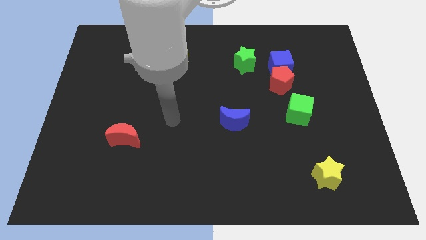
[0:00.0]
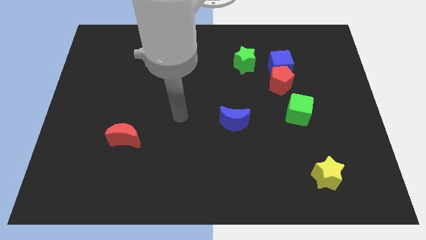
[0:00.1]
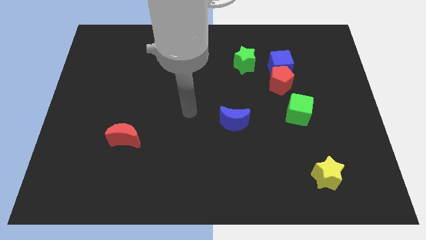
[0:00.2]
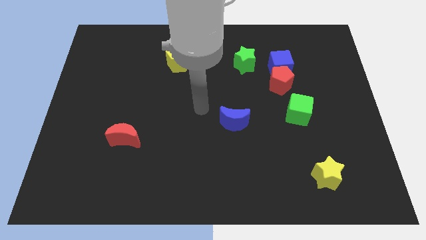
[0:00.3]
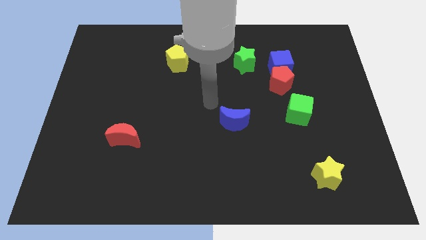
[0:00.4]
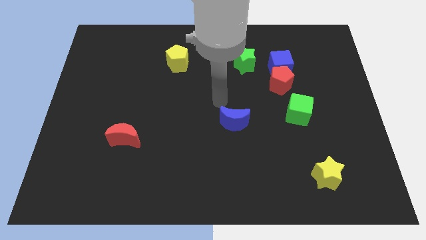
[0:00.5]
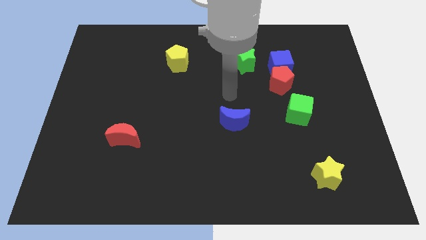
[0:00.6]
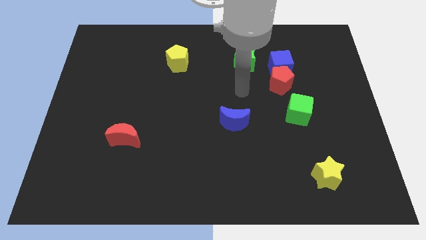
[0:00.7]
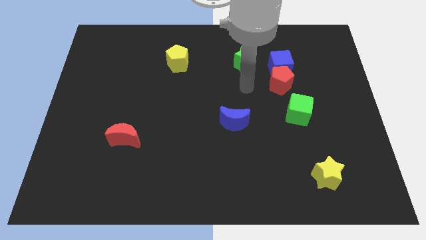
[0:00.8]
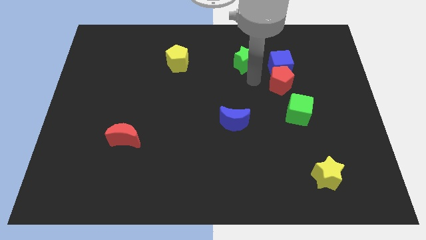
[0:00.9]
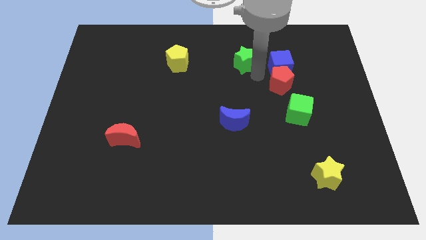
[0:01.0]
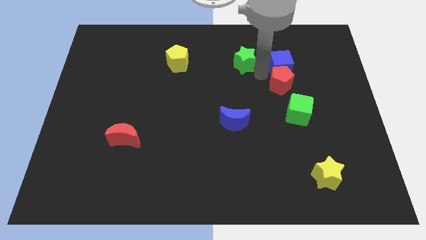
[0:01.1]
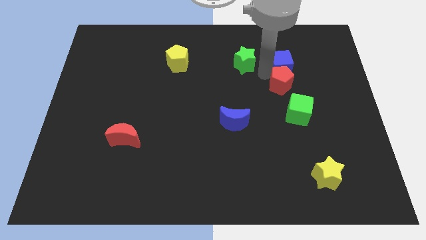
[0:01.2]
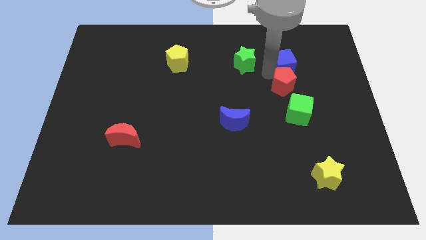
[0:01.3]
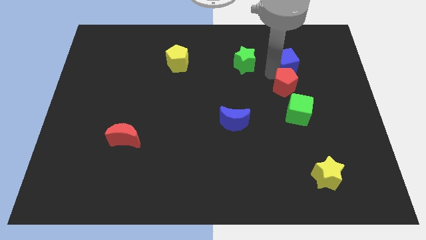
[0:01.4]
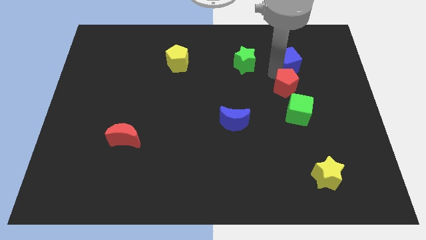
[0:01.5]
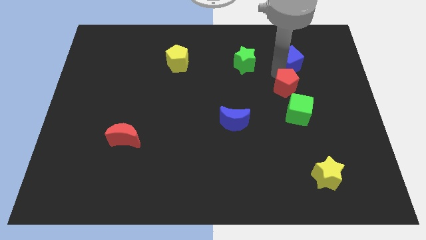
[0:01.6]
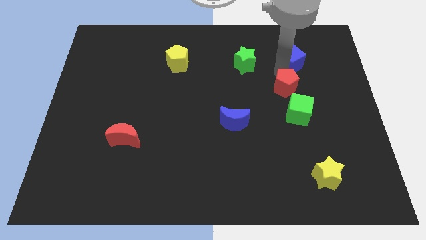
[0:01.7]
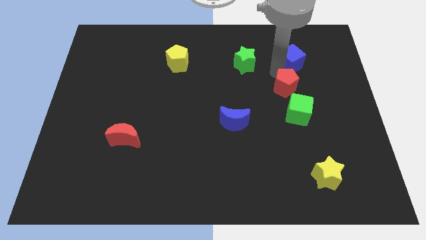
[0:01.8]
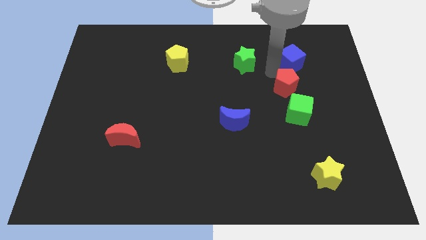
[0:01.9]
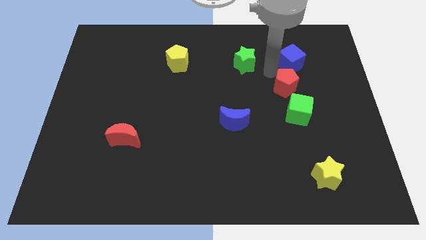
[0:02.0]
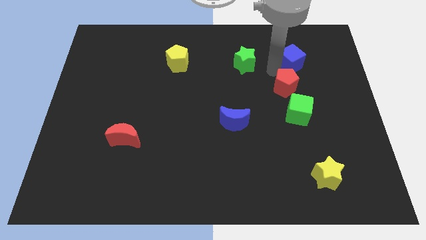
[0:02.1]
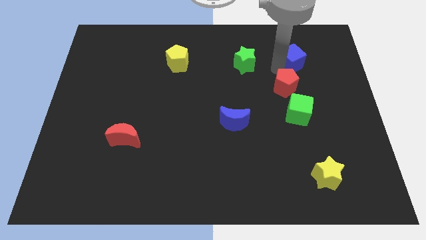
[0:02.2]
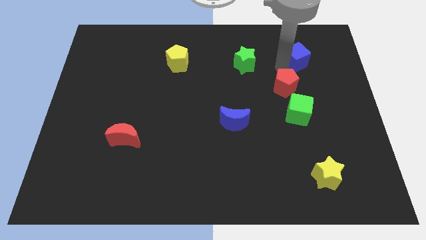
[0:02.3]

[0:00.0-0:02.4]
move the blue cube away from the red pentagon and green star

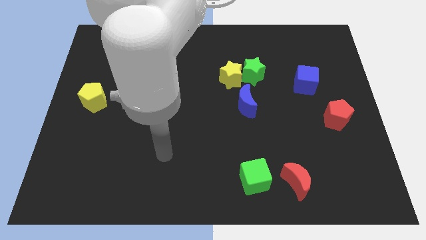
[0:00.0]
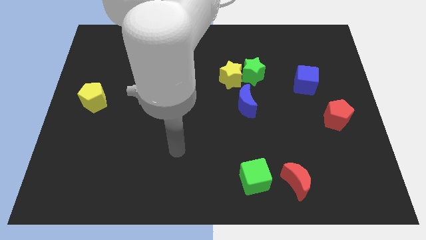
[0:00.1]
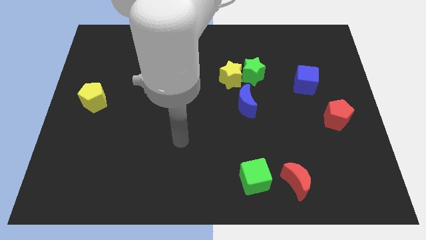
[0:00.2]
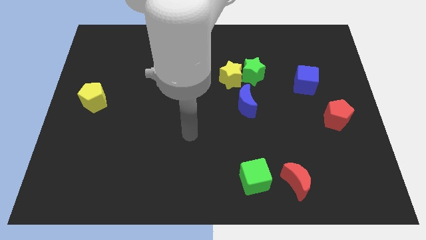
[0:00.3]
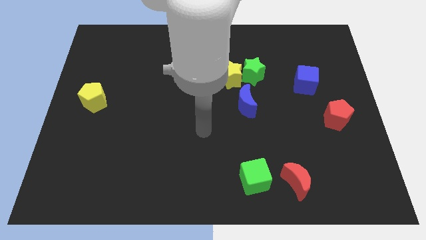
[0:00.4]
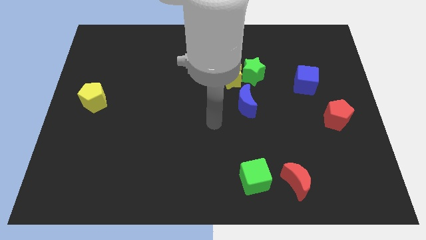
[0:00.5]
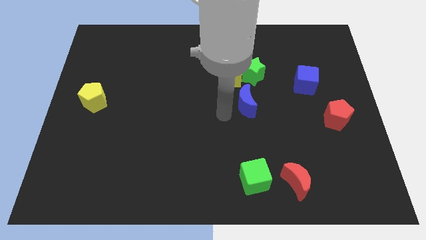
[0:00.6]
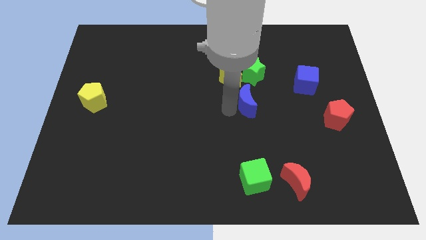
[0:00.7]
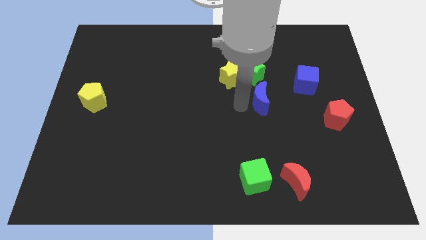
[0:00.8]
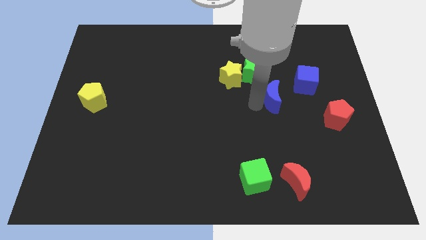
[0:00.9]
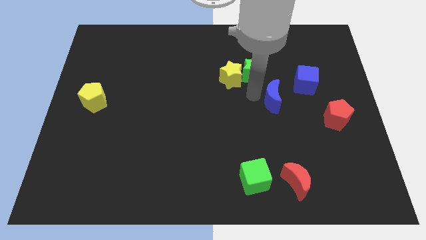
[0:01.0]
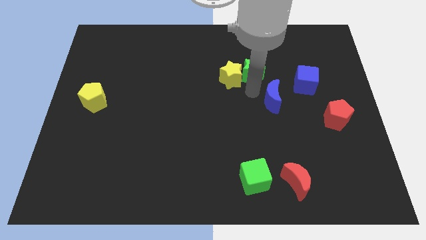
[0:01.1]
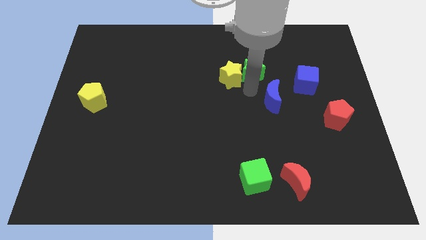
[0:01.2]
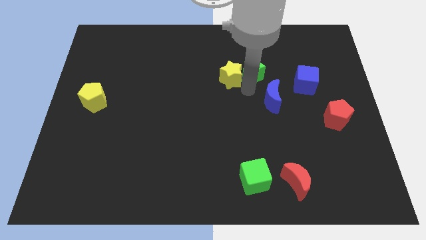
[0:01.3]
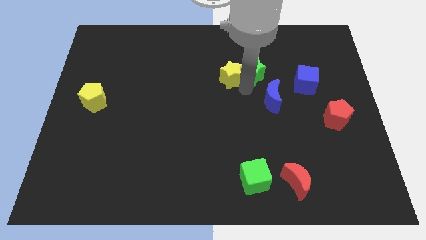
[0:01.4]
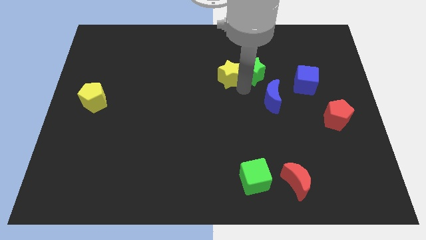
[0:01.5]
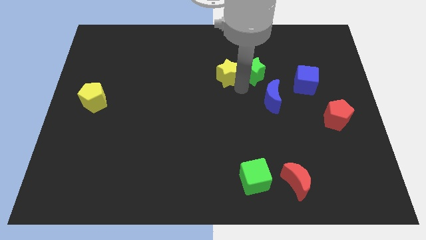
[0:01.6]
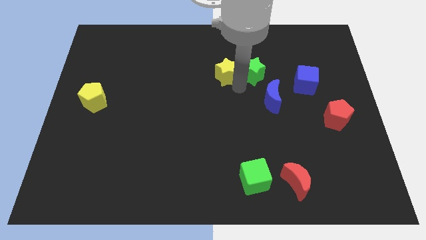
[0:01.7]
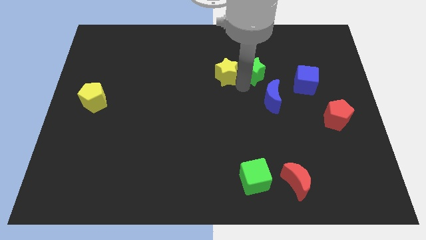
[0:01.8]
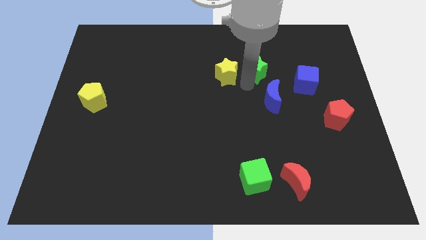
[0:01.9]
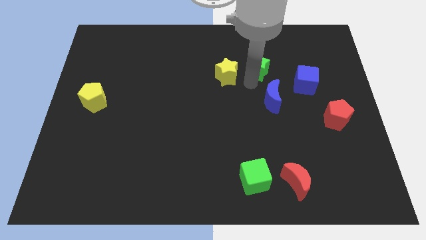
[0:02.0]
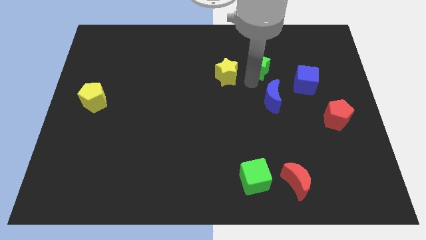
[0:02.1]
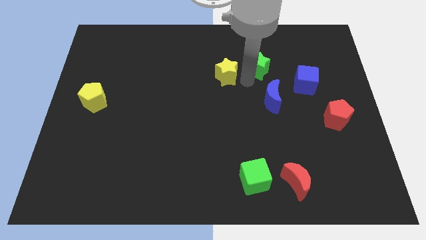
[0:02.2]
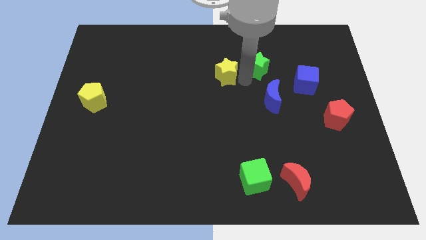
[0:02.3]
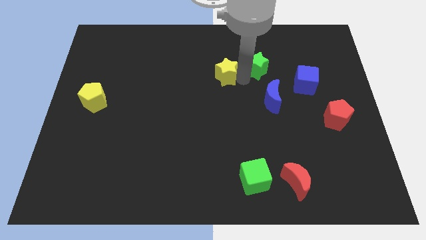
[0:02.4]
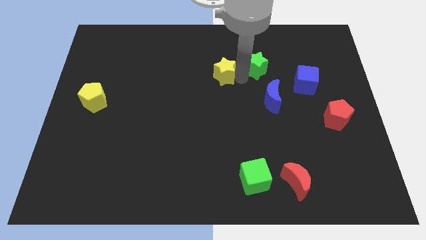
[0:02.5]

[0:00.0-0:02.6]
separate the yellow star from the green star and blue moon

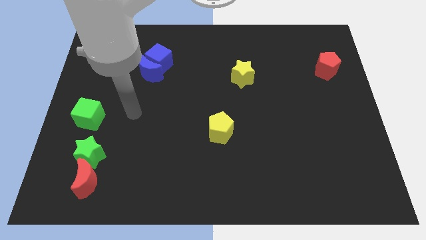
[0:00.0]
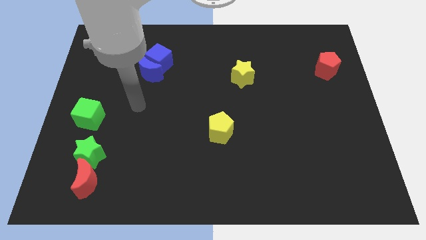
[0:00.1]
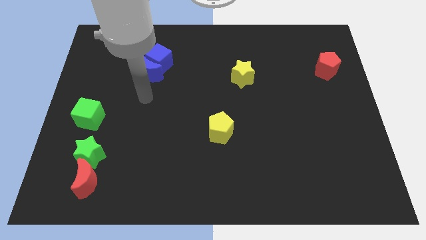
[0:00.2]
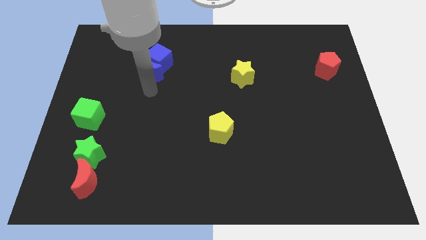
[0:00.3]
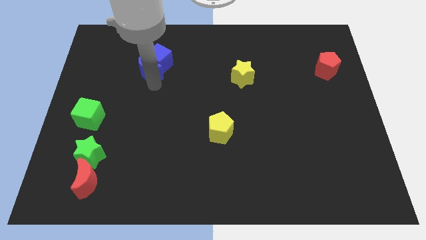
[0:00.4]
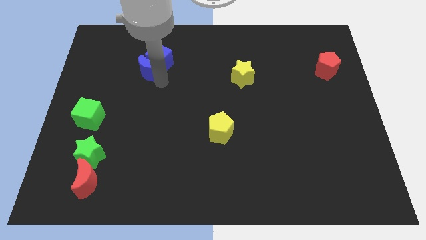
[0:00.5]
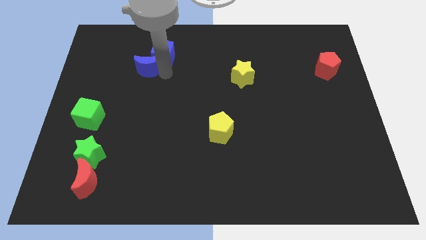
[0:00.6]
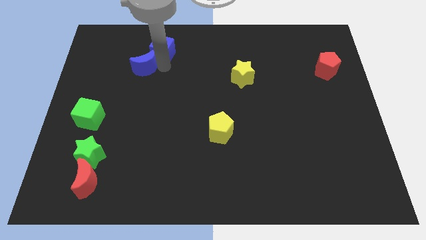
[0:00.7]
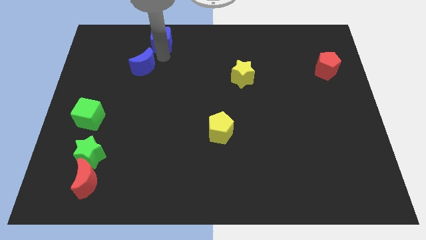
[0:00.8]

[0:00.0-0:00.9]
separate the blue moon from the blue cube

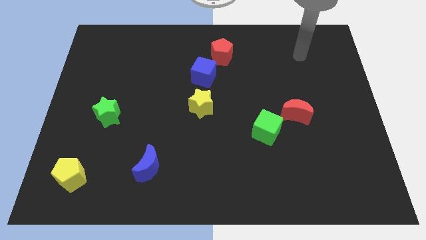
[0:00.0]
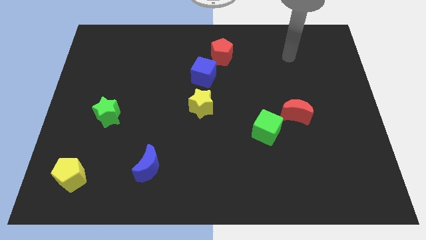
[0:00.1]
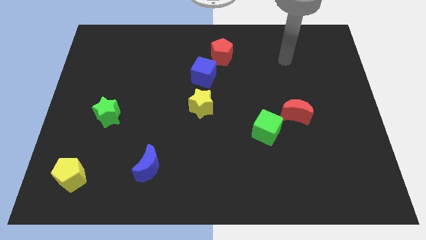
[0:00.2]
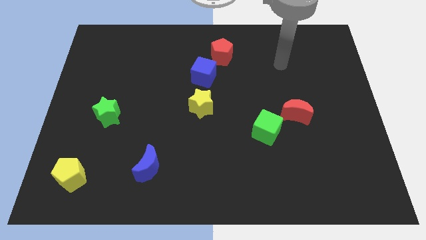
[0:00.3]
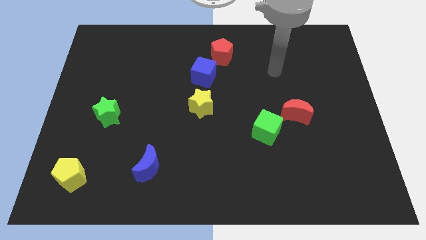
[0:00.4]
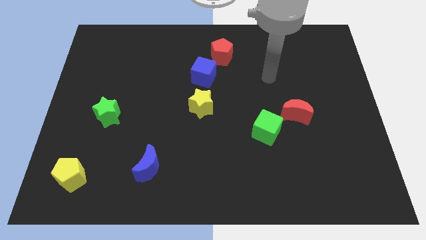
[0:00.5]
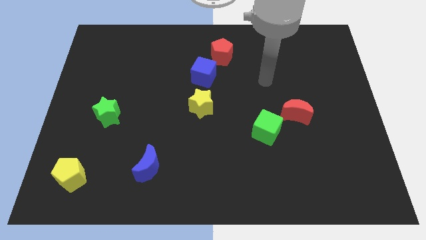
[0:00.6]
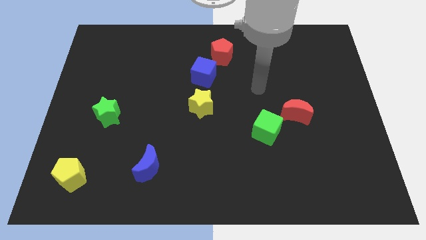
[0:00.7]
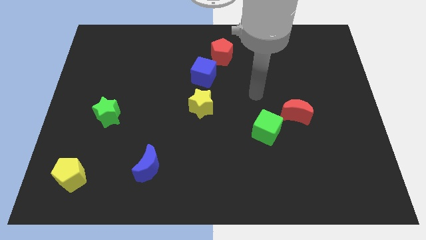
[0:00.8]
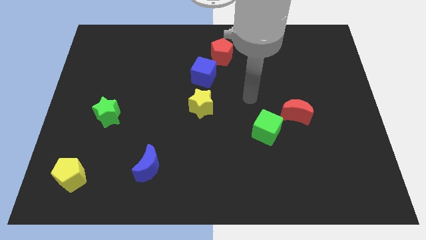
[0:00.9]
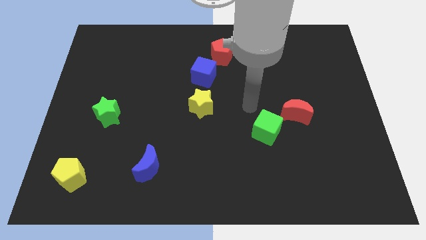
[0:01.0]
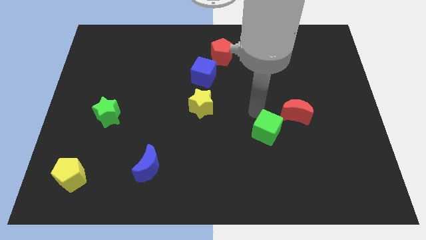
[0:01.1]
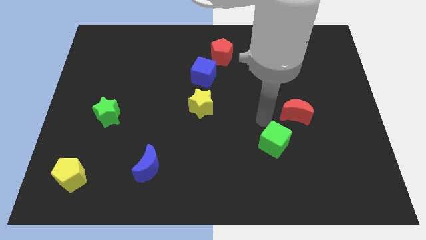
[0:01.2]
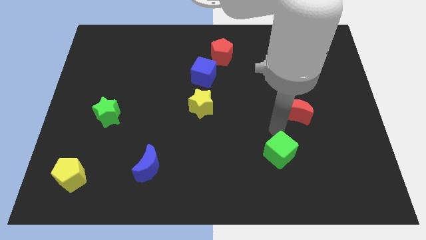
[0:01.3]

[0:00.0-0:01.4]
pull the red moon apart from the green cube

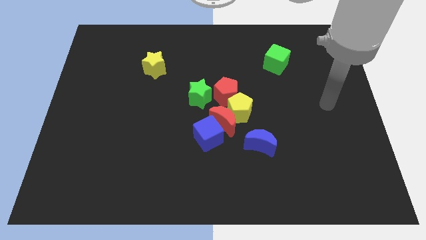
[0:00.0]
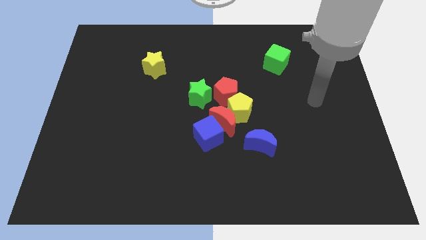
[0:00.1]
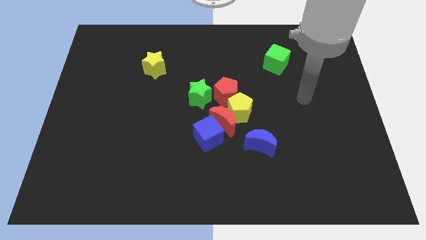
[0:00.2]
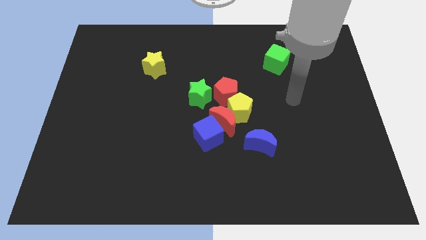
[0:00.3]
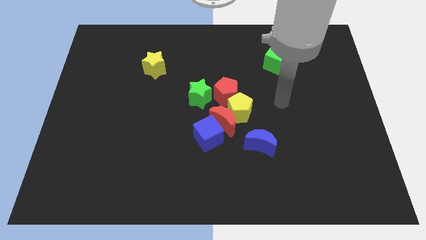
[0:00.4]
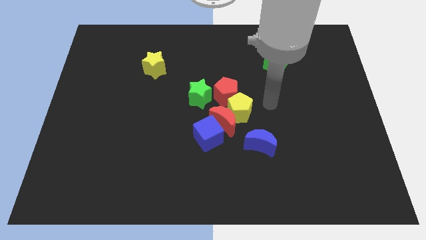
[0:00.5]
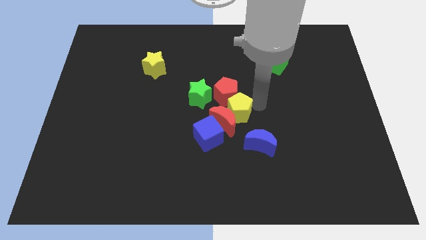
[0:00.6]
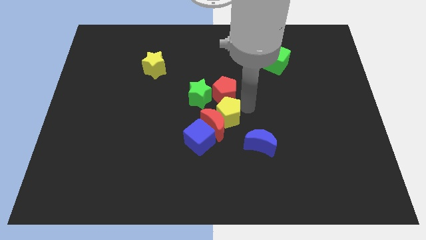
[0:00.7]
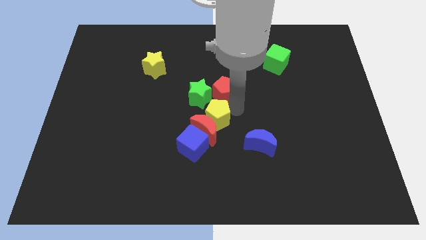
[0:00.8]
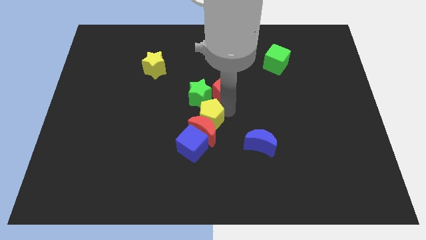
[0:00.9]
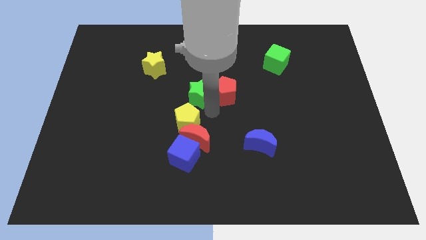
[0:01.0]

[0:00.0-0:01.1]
pull the red pentagon apart from the group of blocks

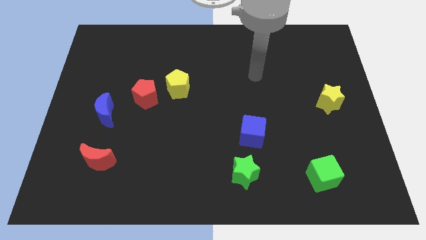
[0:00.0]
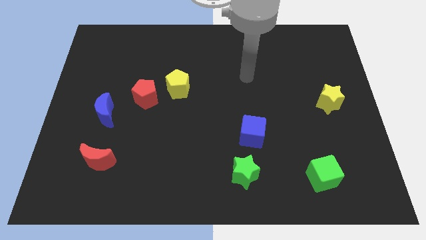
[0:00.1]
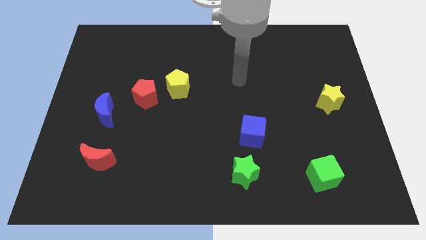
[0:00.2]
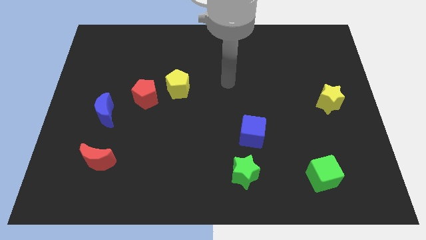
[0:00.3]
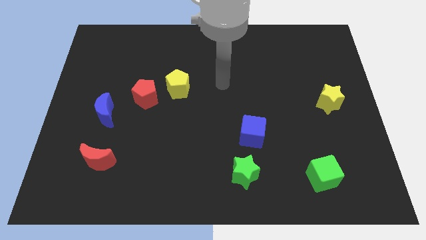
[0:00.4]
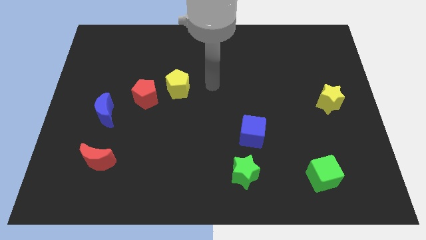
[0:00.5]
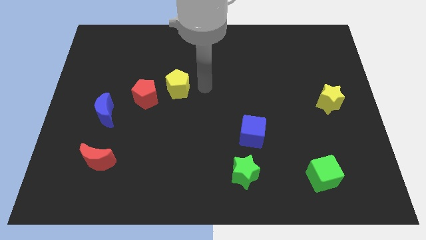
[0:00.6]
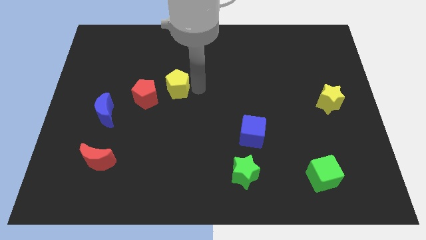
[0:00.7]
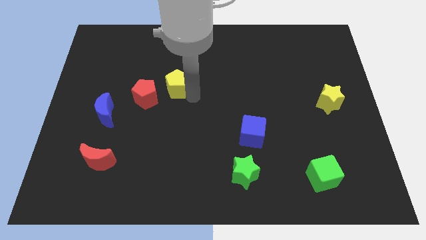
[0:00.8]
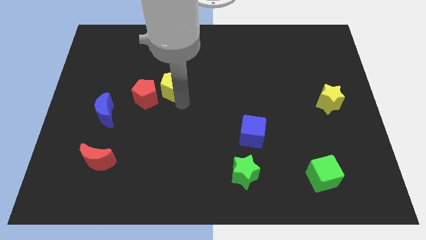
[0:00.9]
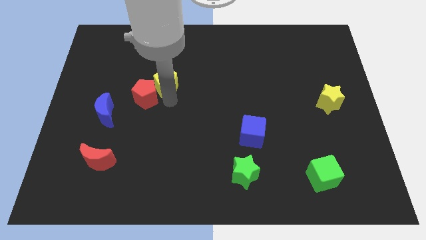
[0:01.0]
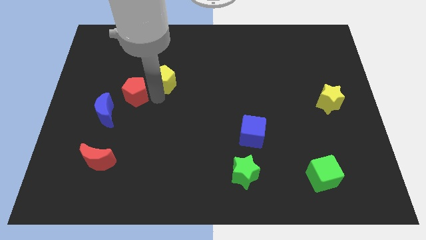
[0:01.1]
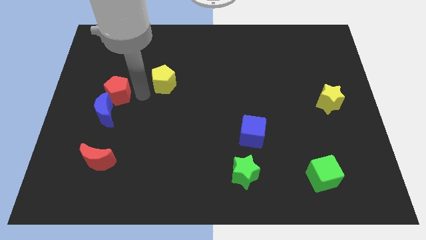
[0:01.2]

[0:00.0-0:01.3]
separate the yellow pentagon from the red pentagon
